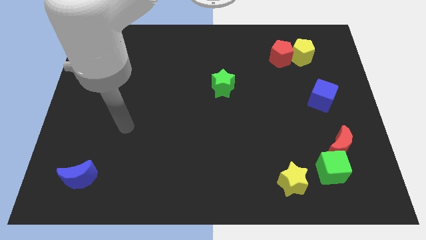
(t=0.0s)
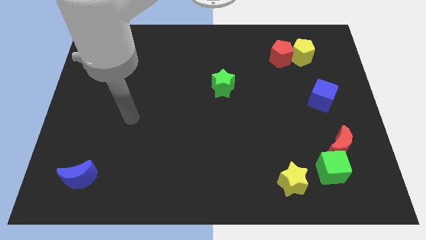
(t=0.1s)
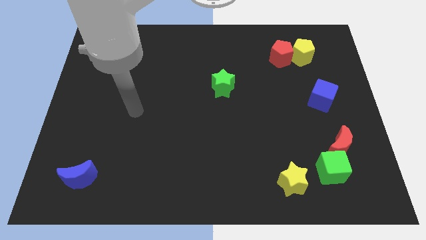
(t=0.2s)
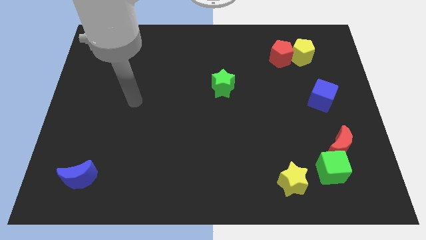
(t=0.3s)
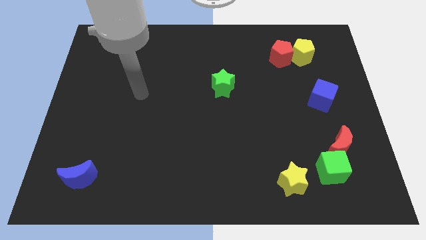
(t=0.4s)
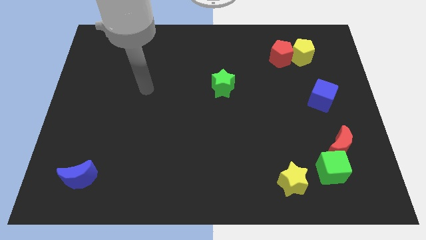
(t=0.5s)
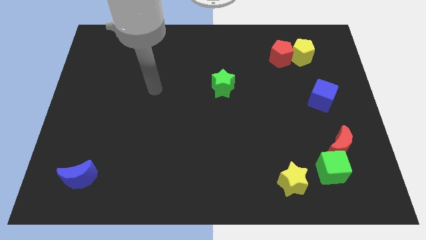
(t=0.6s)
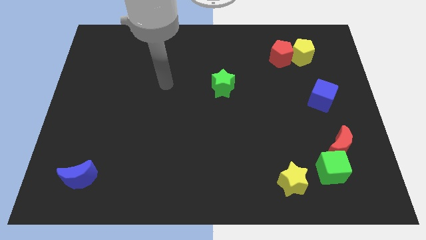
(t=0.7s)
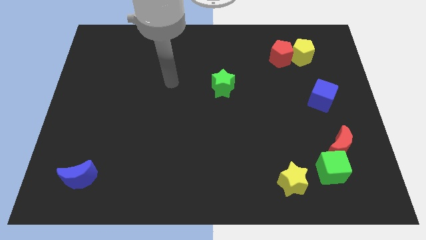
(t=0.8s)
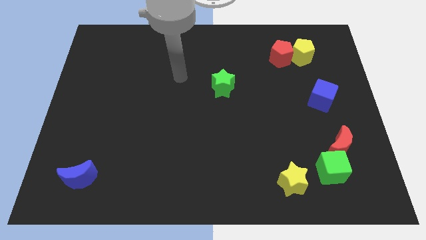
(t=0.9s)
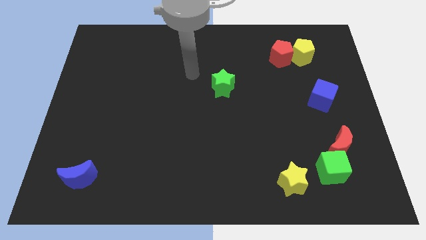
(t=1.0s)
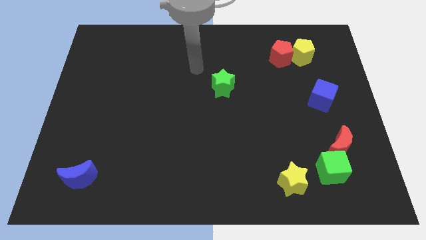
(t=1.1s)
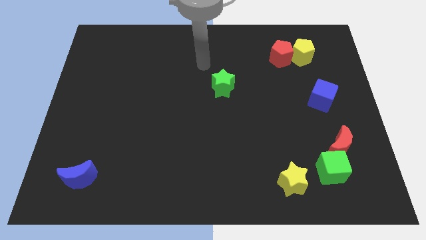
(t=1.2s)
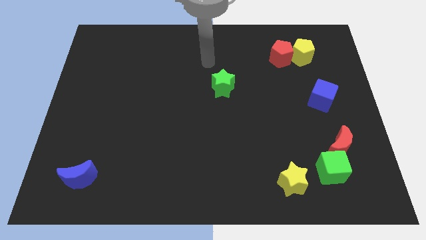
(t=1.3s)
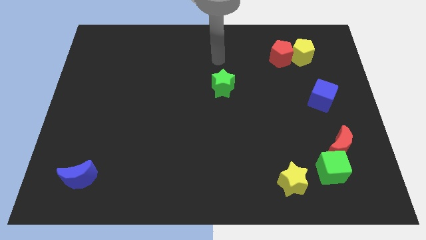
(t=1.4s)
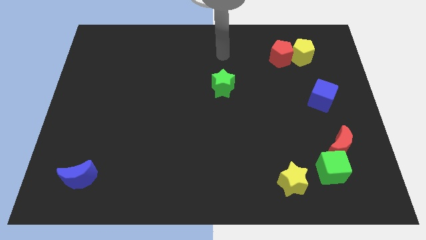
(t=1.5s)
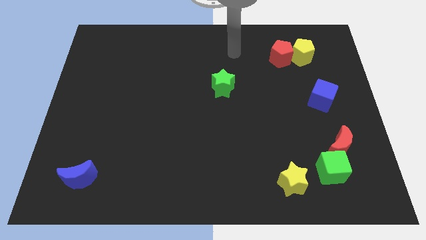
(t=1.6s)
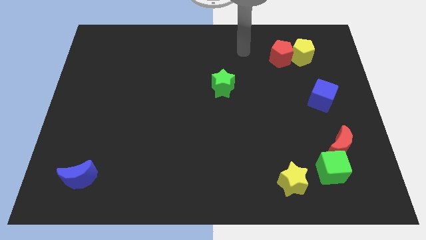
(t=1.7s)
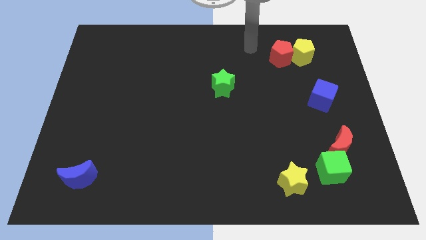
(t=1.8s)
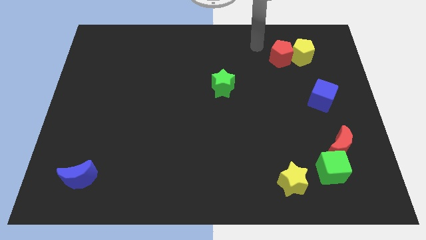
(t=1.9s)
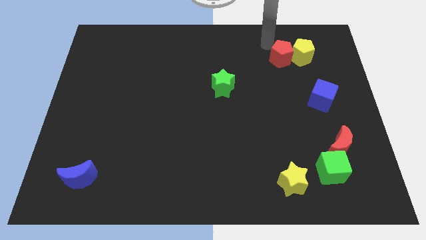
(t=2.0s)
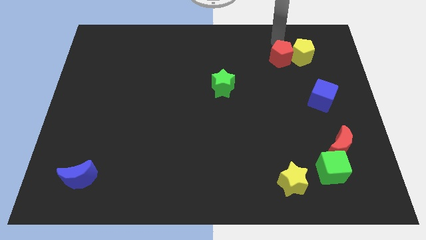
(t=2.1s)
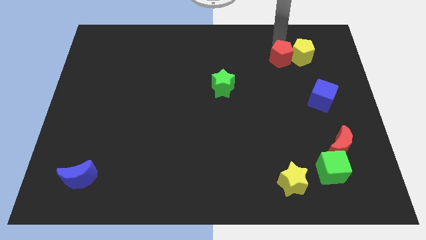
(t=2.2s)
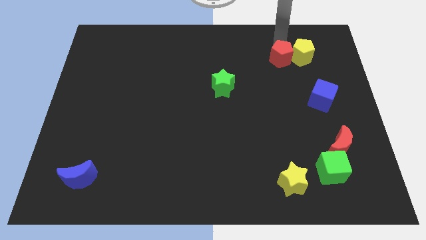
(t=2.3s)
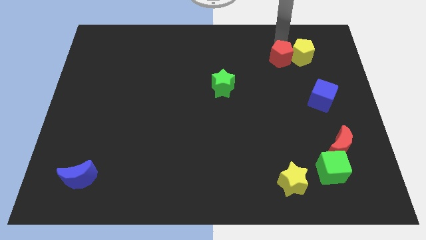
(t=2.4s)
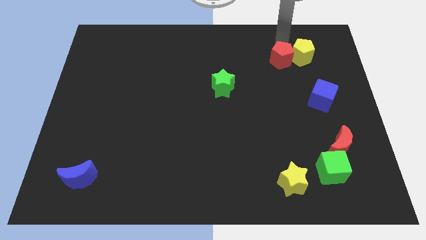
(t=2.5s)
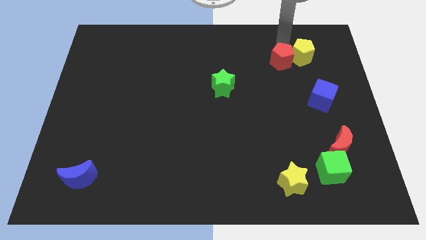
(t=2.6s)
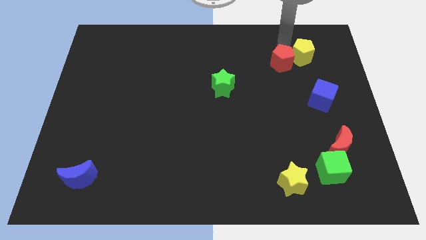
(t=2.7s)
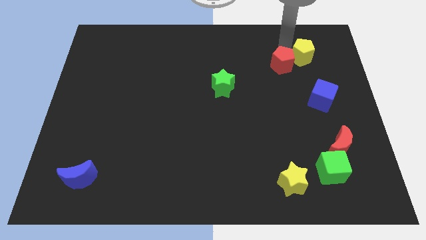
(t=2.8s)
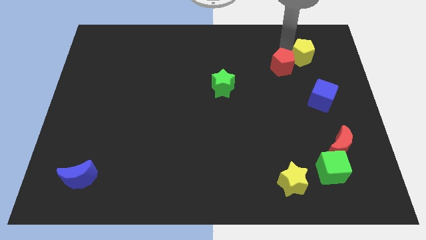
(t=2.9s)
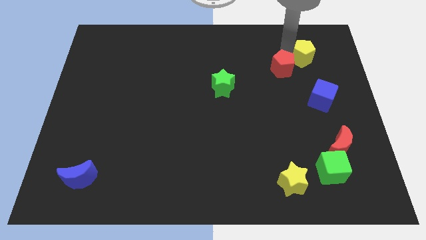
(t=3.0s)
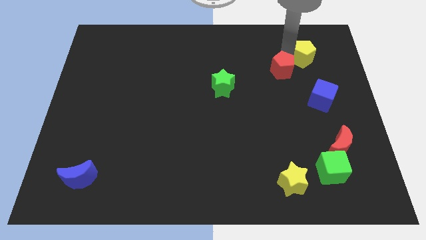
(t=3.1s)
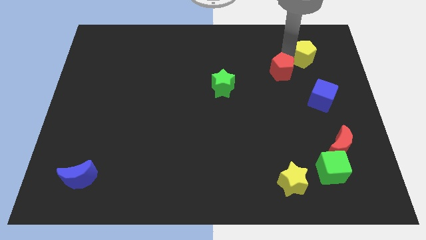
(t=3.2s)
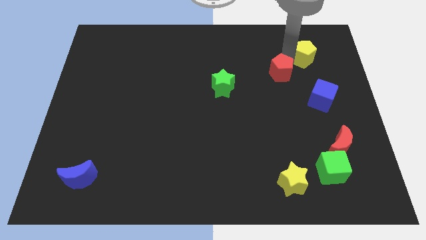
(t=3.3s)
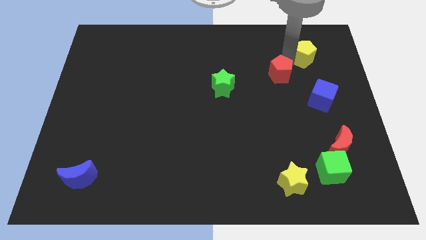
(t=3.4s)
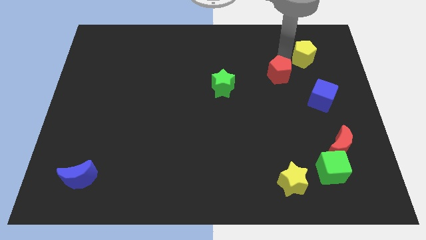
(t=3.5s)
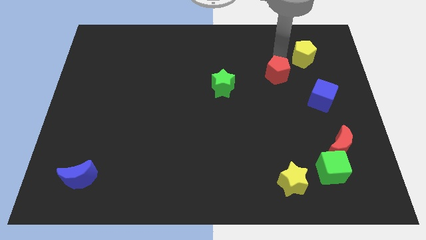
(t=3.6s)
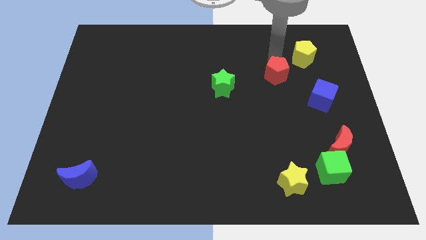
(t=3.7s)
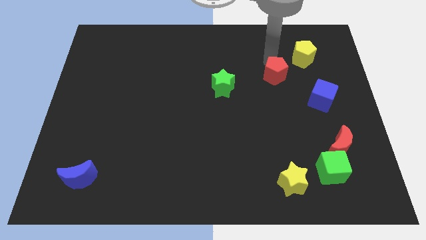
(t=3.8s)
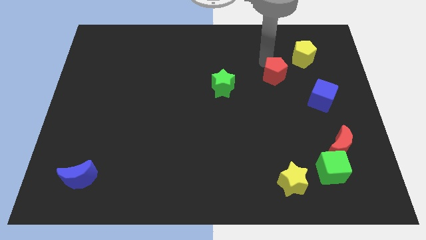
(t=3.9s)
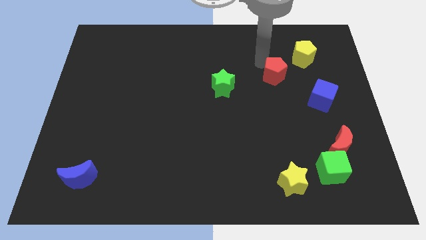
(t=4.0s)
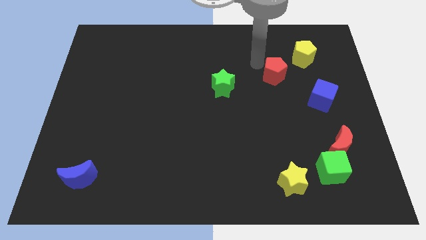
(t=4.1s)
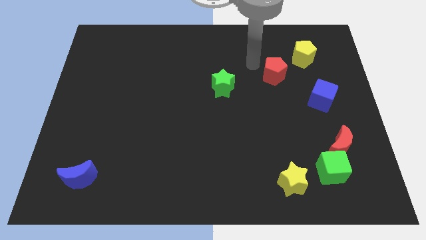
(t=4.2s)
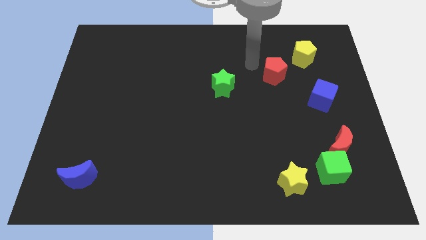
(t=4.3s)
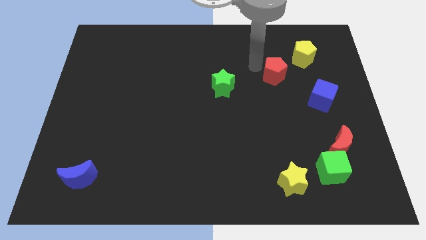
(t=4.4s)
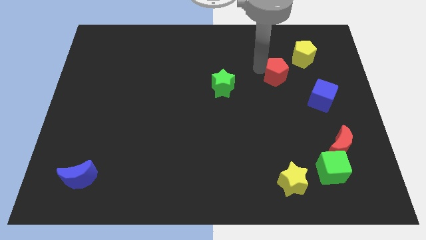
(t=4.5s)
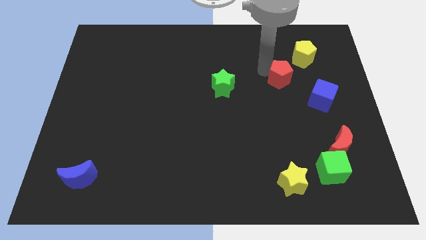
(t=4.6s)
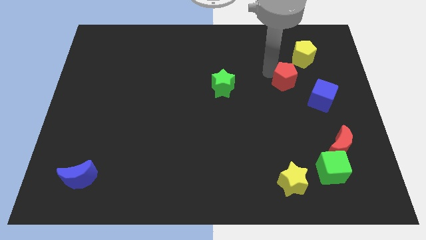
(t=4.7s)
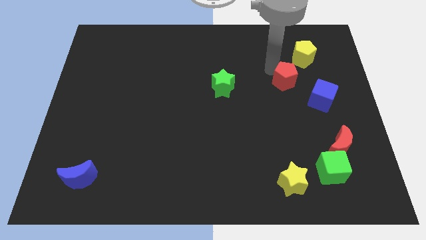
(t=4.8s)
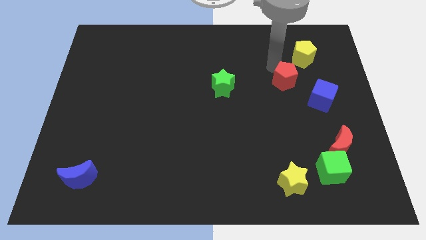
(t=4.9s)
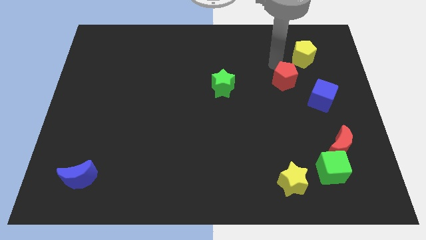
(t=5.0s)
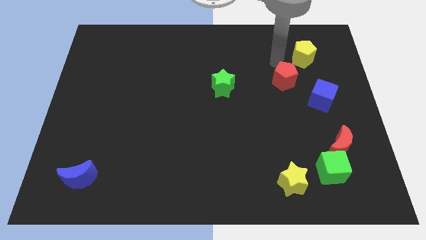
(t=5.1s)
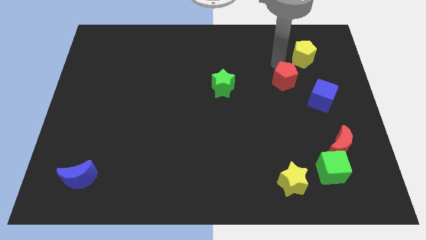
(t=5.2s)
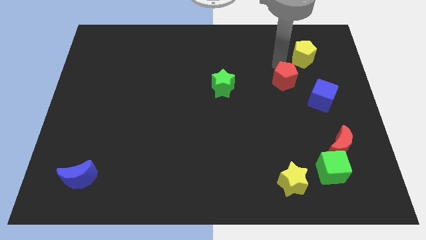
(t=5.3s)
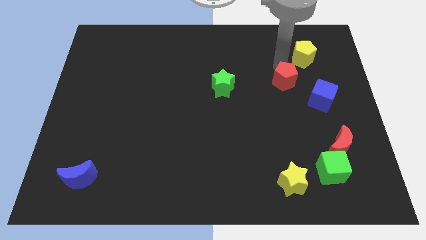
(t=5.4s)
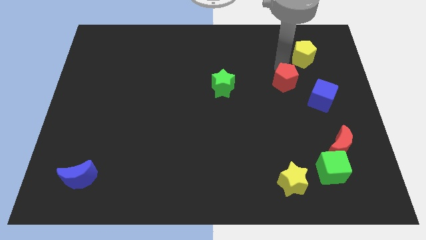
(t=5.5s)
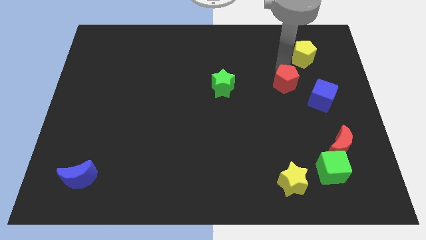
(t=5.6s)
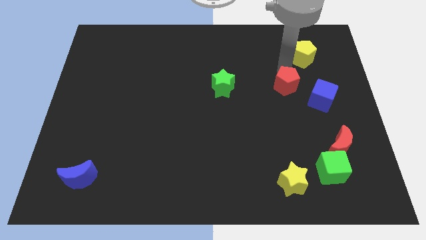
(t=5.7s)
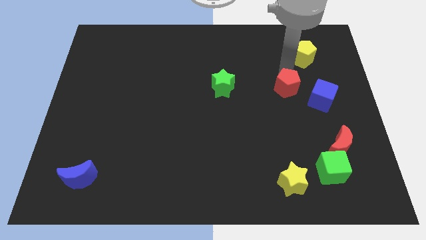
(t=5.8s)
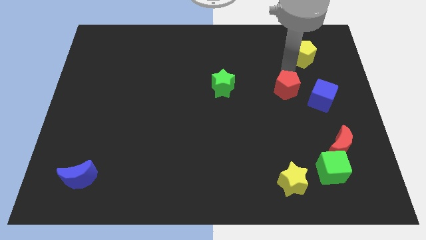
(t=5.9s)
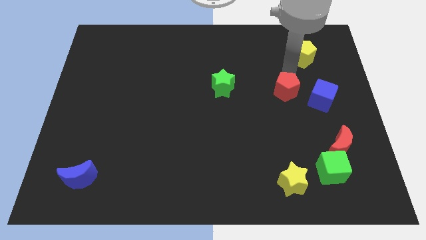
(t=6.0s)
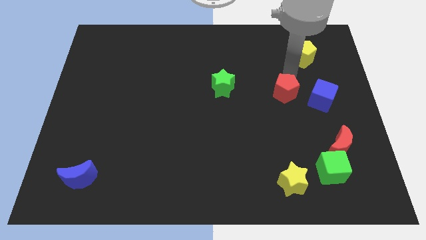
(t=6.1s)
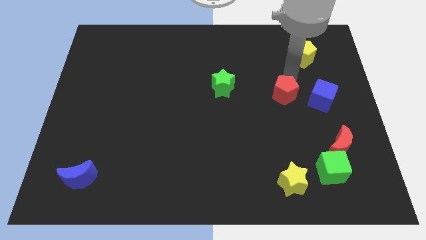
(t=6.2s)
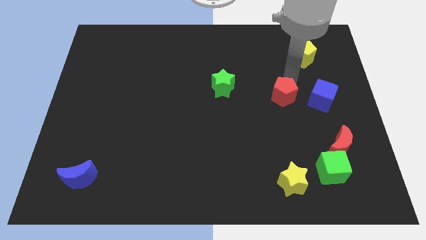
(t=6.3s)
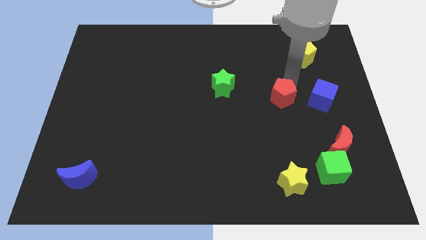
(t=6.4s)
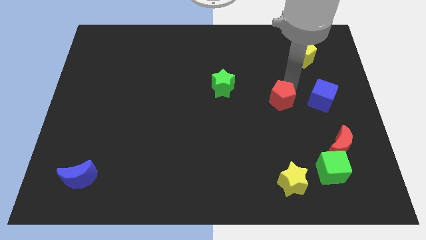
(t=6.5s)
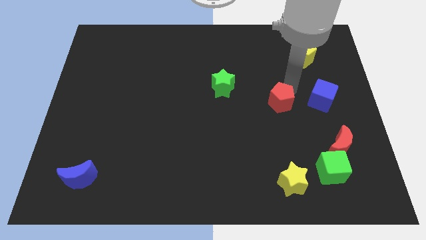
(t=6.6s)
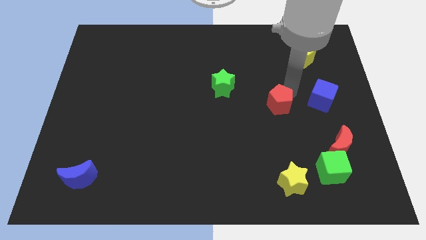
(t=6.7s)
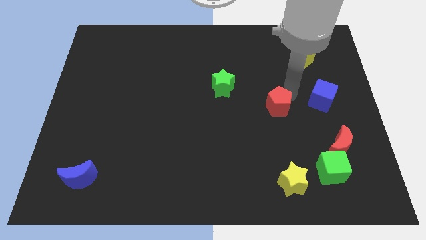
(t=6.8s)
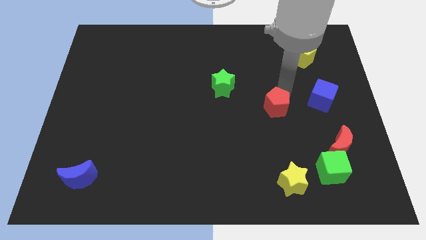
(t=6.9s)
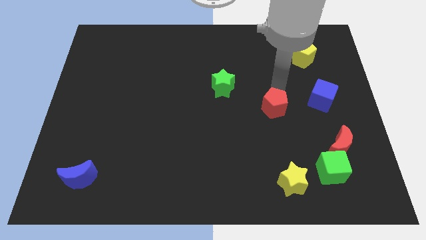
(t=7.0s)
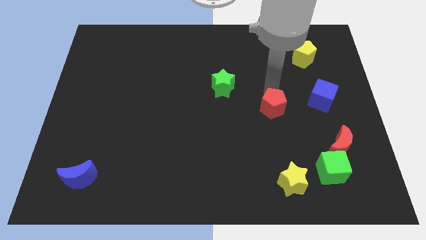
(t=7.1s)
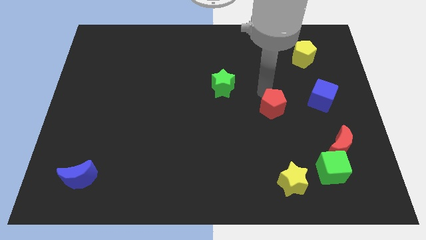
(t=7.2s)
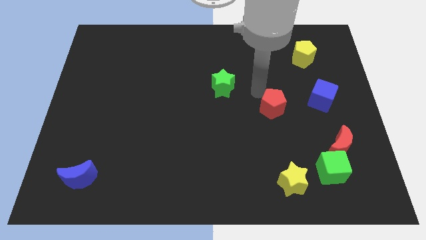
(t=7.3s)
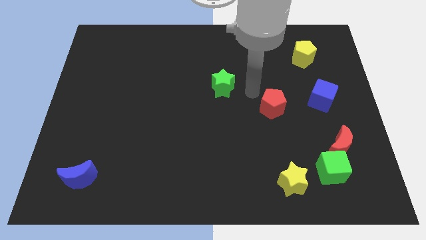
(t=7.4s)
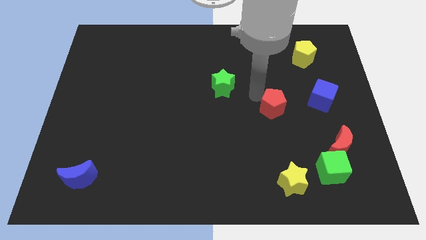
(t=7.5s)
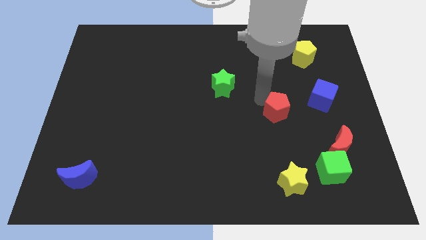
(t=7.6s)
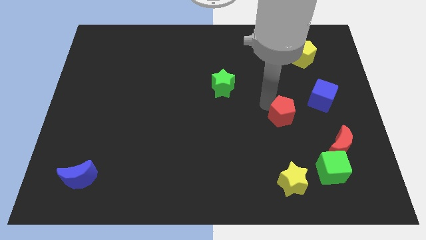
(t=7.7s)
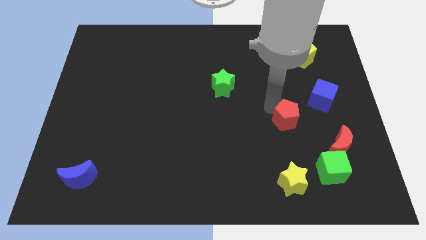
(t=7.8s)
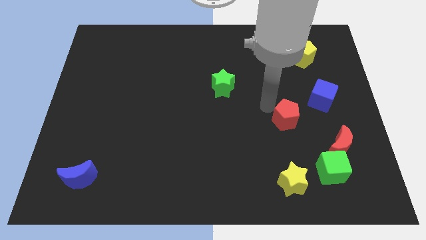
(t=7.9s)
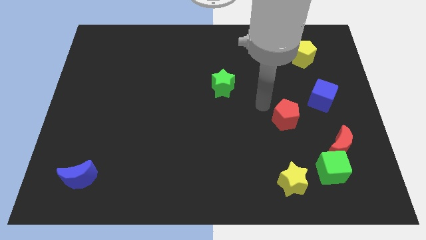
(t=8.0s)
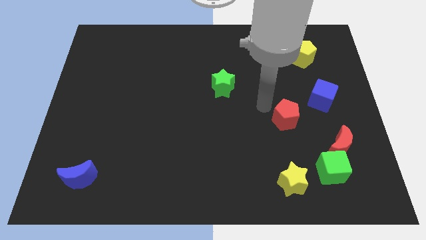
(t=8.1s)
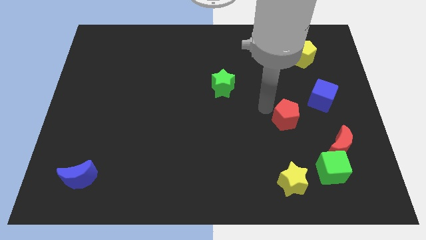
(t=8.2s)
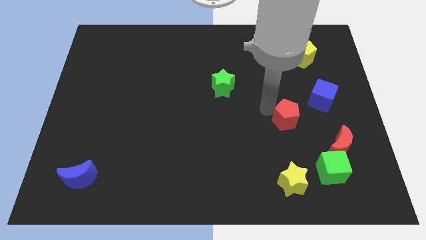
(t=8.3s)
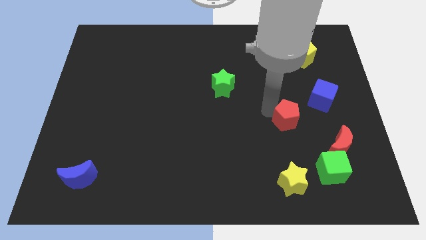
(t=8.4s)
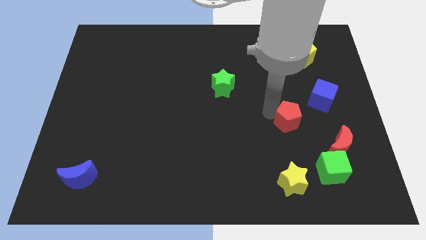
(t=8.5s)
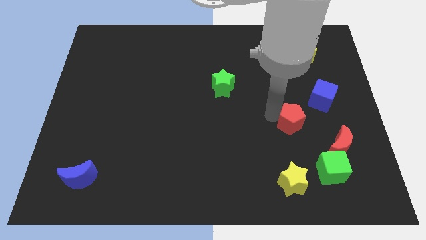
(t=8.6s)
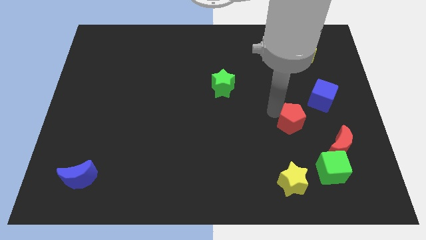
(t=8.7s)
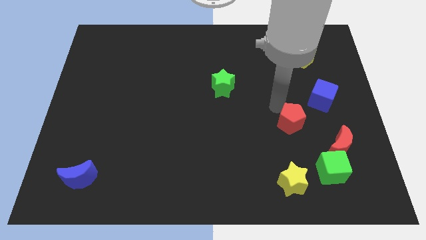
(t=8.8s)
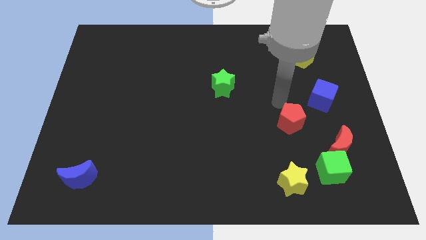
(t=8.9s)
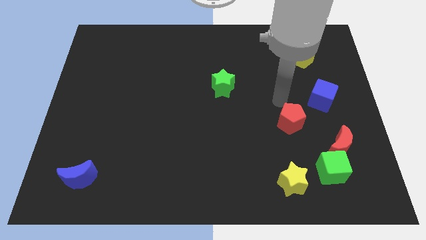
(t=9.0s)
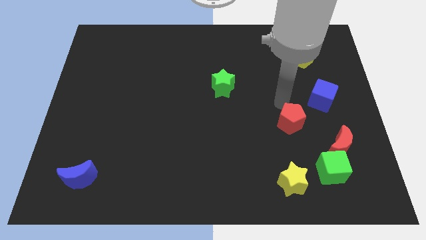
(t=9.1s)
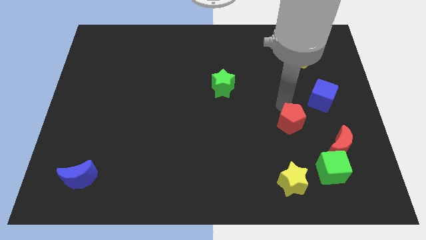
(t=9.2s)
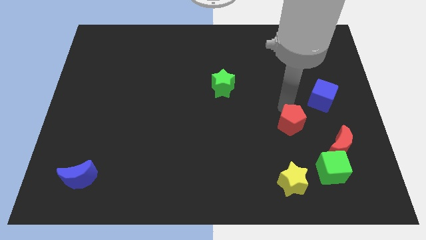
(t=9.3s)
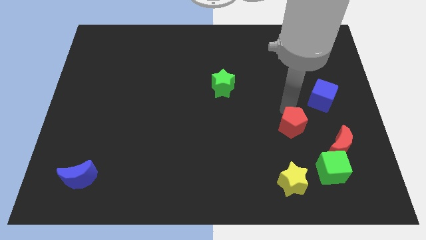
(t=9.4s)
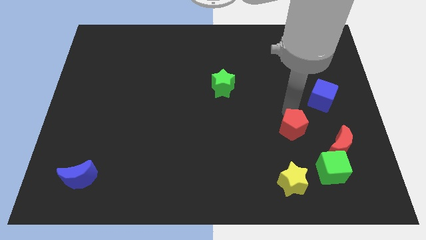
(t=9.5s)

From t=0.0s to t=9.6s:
put the red pentagon to the top left side of the green cube
